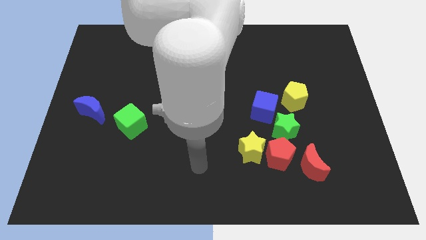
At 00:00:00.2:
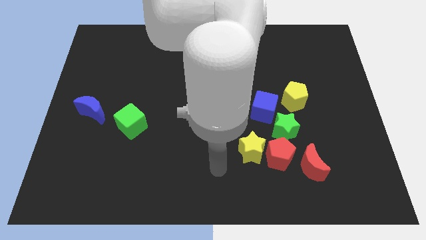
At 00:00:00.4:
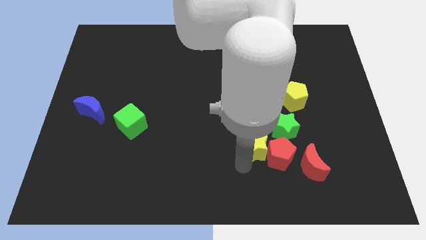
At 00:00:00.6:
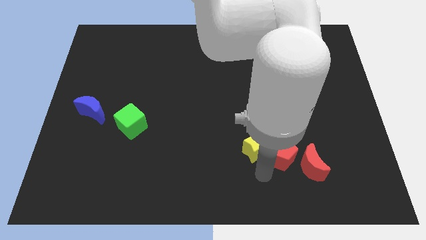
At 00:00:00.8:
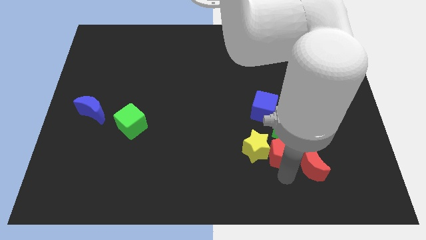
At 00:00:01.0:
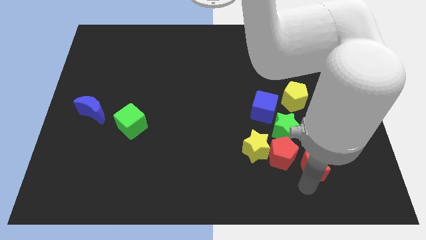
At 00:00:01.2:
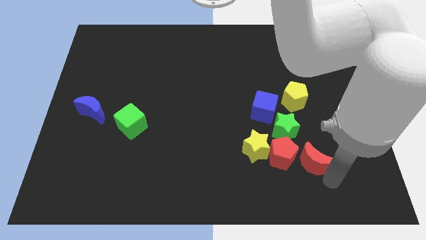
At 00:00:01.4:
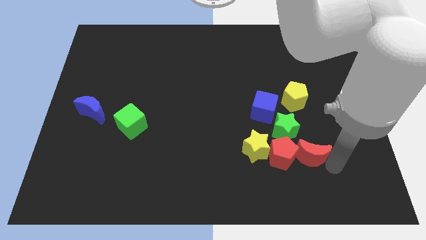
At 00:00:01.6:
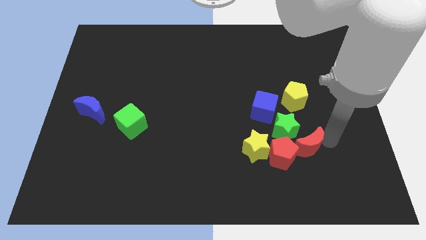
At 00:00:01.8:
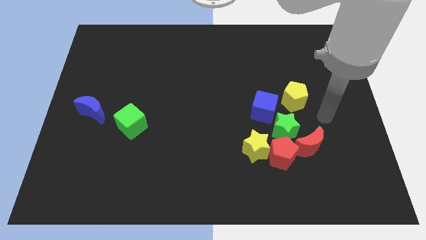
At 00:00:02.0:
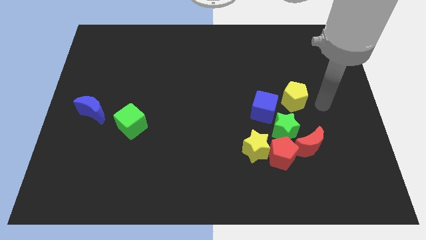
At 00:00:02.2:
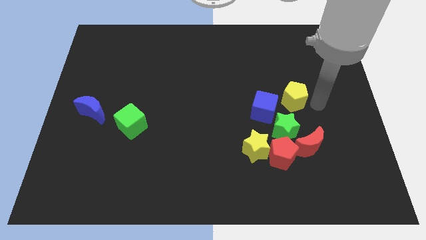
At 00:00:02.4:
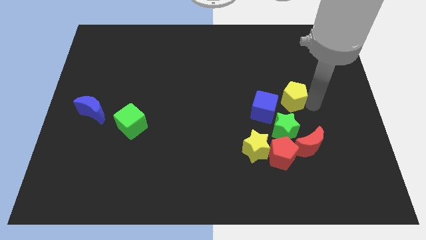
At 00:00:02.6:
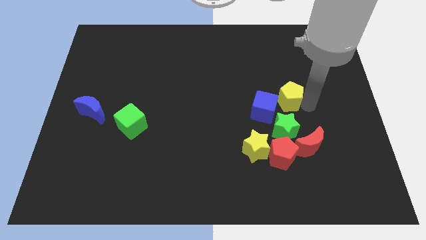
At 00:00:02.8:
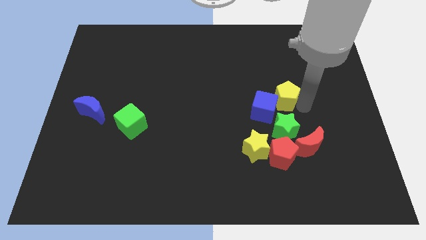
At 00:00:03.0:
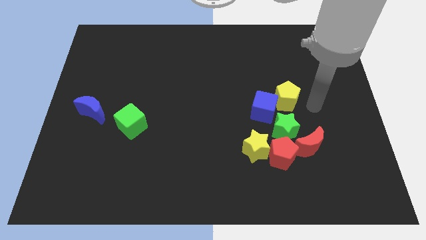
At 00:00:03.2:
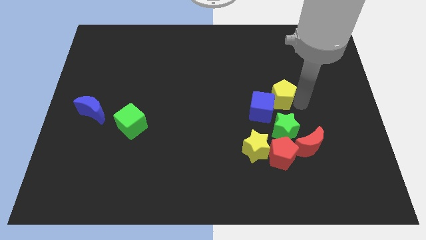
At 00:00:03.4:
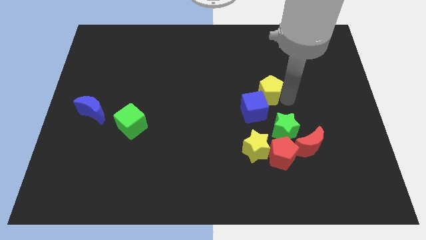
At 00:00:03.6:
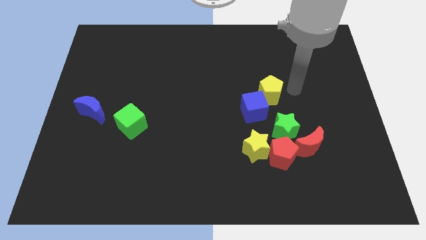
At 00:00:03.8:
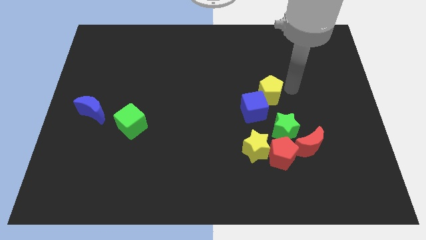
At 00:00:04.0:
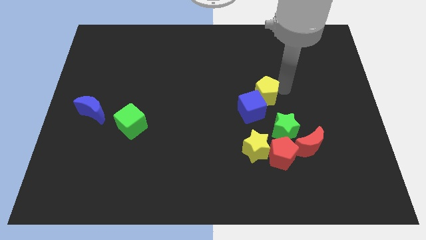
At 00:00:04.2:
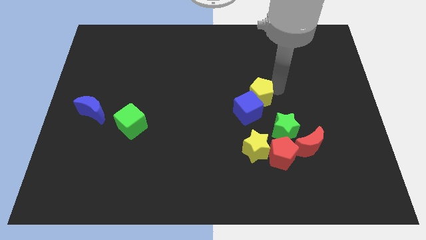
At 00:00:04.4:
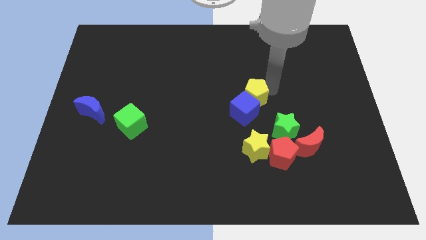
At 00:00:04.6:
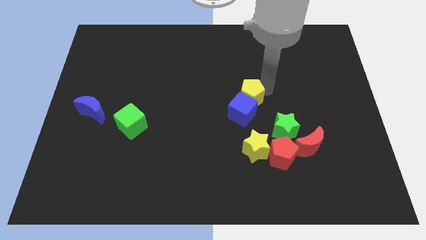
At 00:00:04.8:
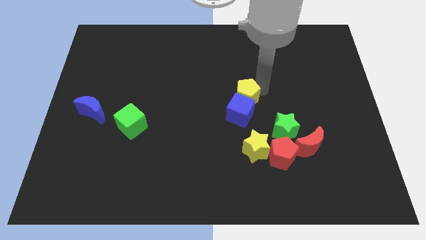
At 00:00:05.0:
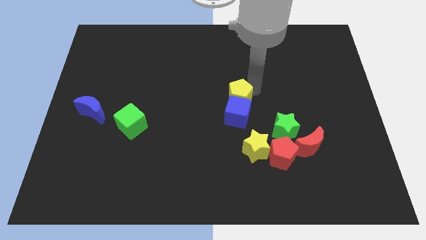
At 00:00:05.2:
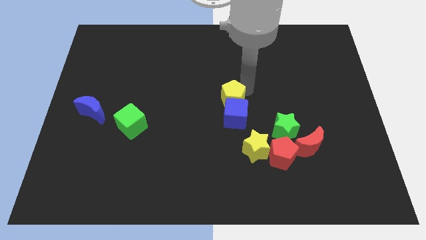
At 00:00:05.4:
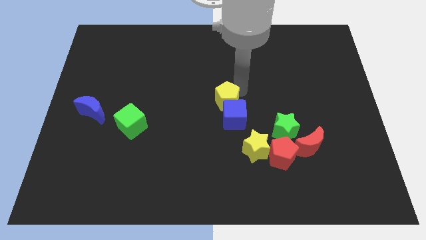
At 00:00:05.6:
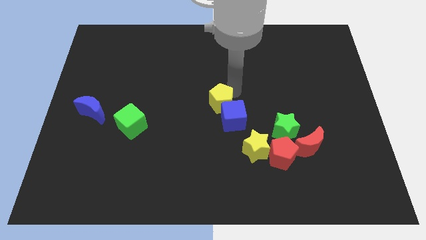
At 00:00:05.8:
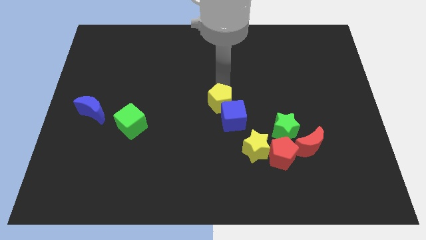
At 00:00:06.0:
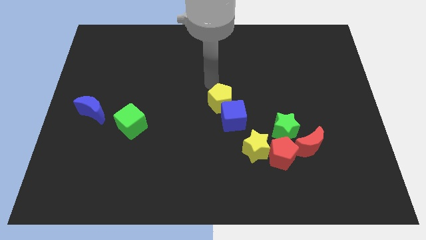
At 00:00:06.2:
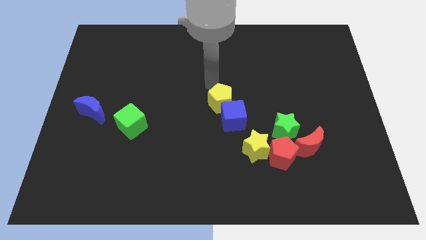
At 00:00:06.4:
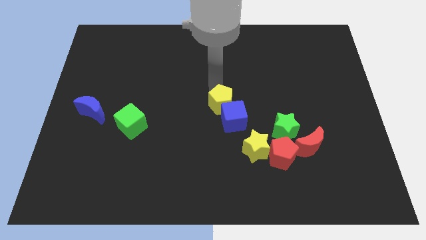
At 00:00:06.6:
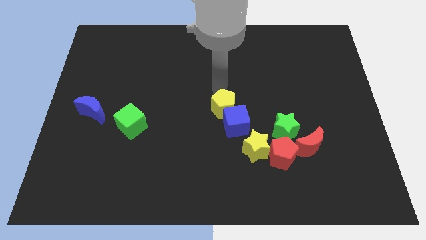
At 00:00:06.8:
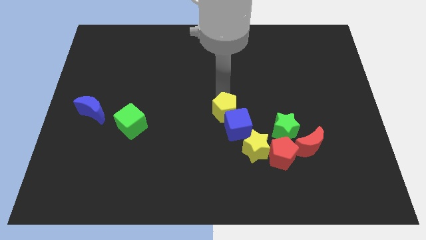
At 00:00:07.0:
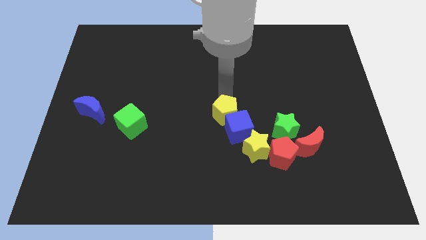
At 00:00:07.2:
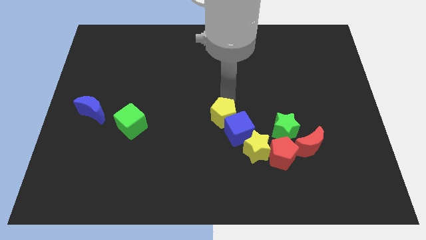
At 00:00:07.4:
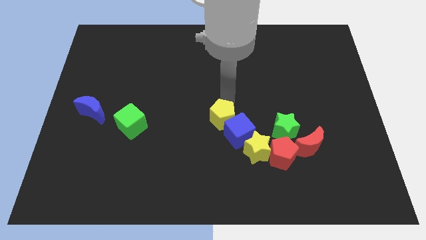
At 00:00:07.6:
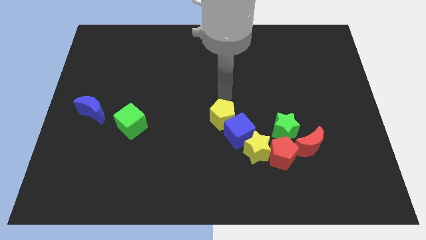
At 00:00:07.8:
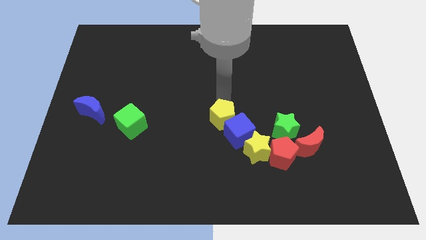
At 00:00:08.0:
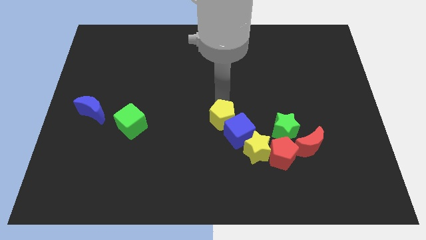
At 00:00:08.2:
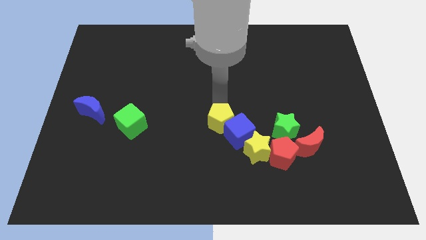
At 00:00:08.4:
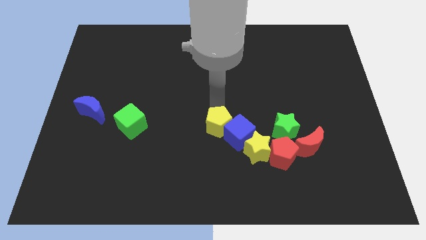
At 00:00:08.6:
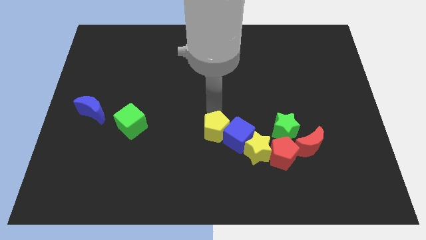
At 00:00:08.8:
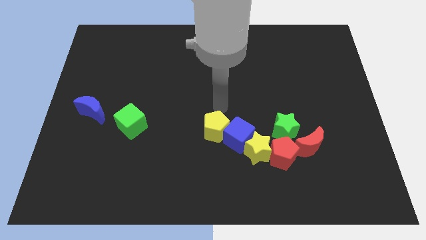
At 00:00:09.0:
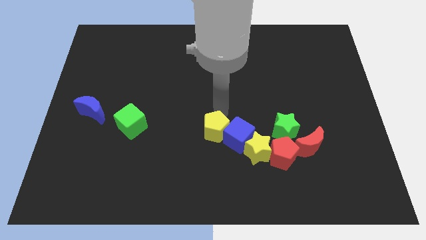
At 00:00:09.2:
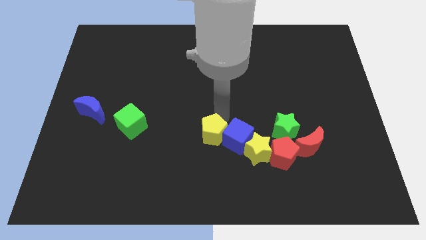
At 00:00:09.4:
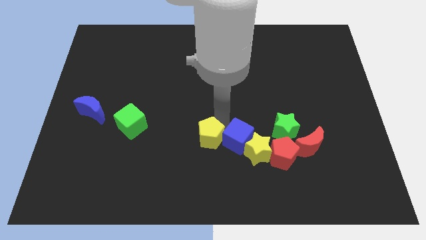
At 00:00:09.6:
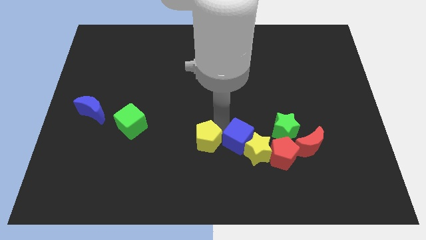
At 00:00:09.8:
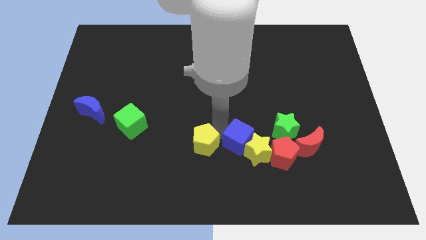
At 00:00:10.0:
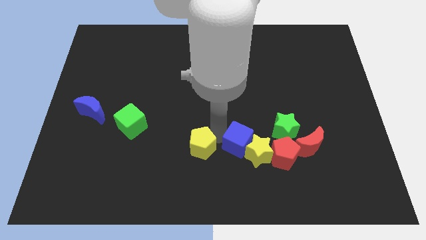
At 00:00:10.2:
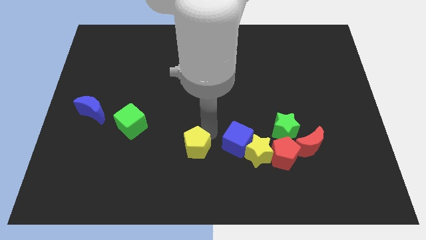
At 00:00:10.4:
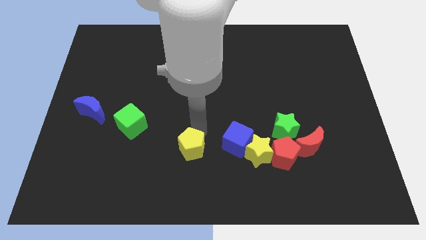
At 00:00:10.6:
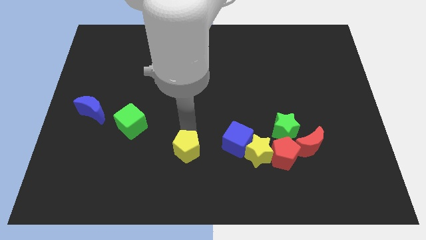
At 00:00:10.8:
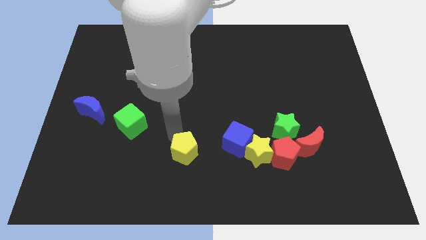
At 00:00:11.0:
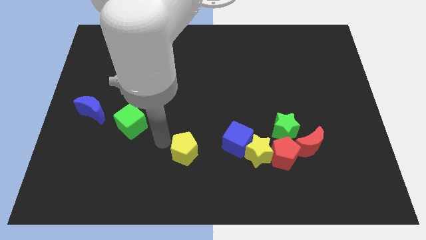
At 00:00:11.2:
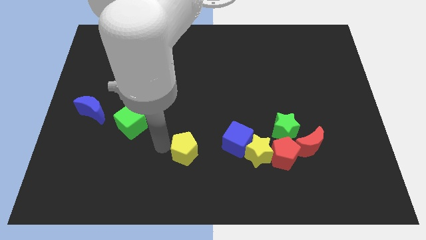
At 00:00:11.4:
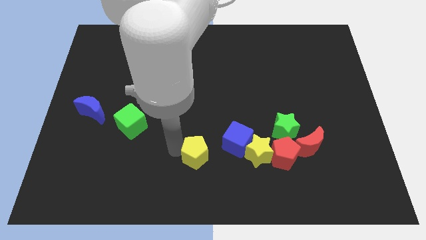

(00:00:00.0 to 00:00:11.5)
slide the yellow pentagon to the bottom side

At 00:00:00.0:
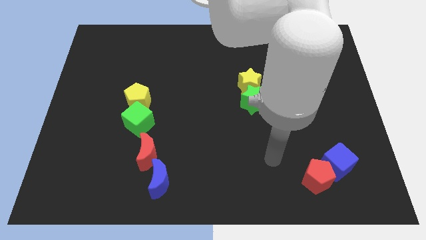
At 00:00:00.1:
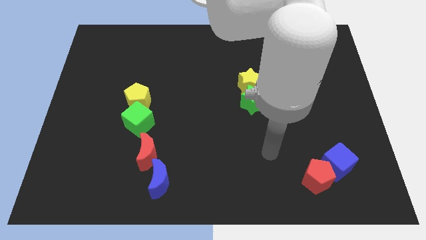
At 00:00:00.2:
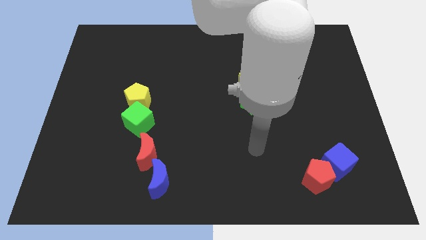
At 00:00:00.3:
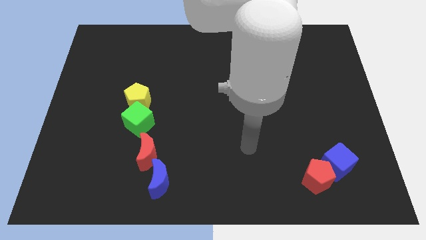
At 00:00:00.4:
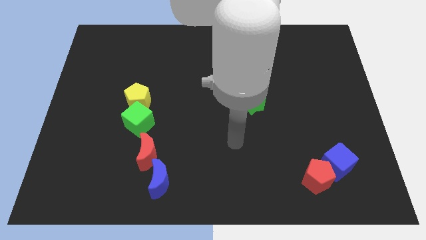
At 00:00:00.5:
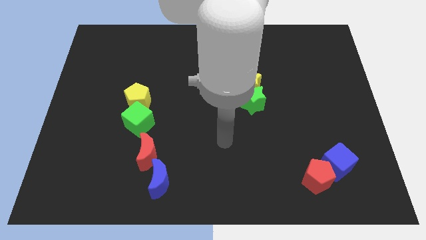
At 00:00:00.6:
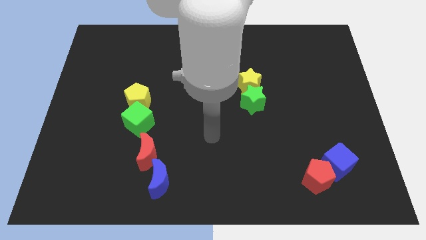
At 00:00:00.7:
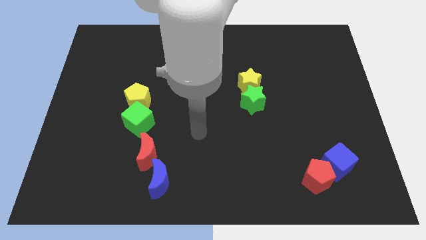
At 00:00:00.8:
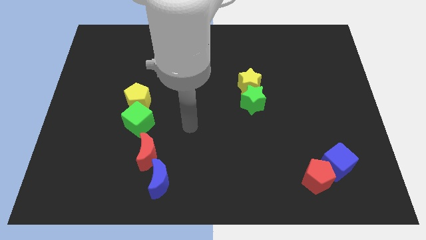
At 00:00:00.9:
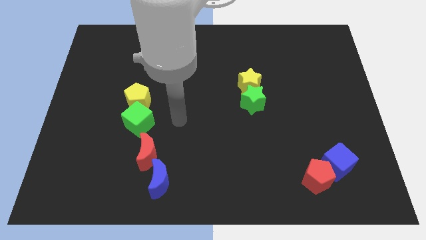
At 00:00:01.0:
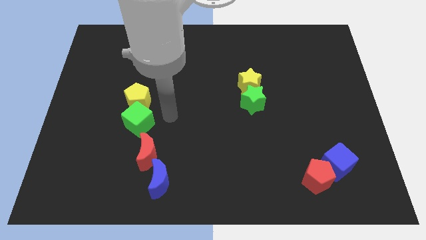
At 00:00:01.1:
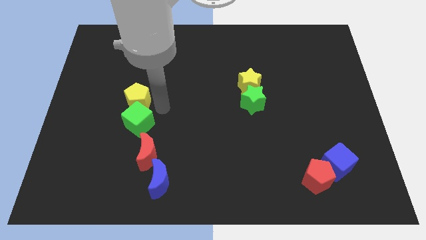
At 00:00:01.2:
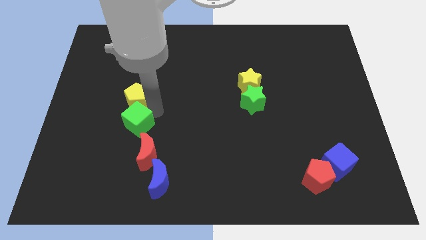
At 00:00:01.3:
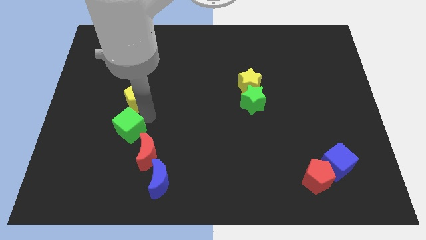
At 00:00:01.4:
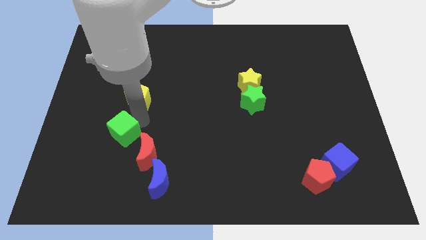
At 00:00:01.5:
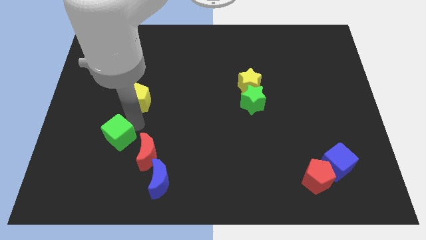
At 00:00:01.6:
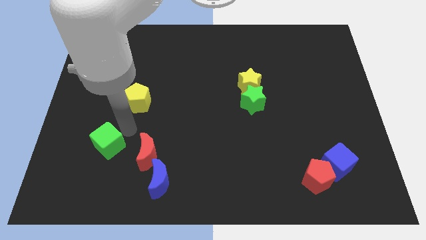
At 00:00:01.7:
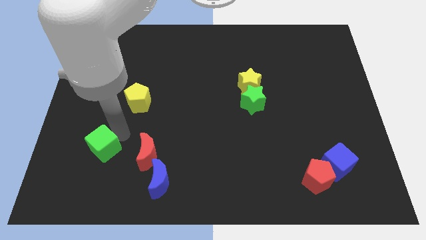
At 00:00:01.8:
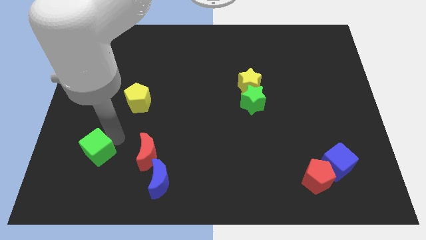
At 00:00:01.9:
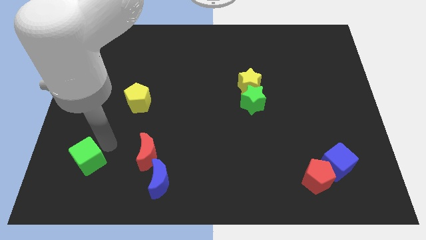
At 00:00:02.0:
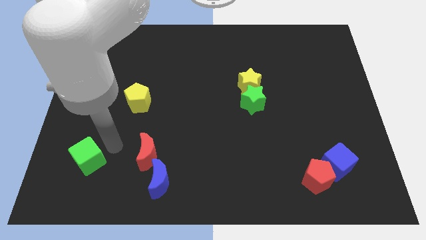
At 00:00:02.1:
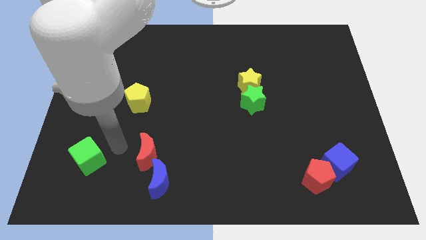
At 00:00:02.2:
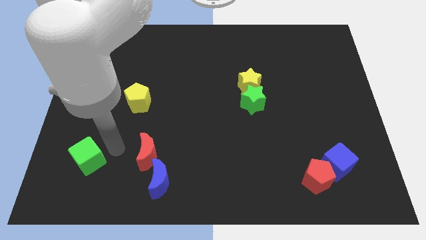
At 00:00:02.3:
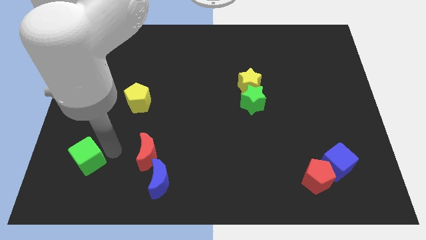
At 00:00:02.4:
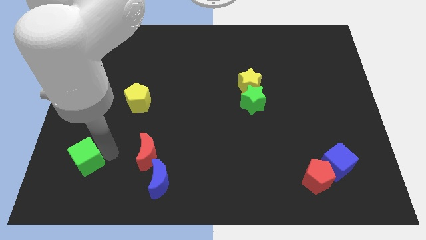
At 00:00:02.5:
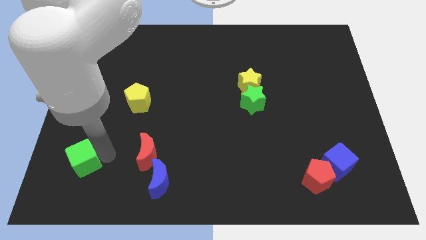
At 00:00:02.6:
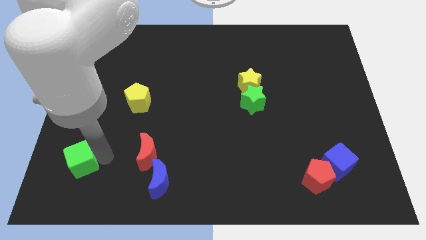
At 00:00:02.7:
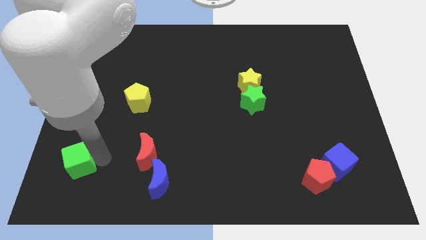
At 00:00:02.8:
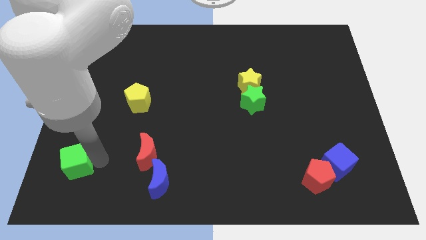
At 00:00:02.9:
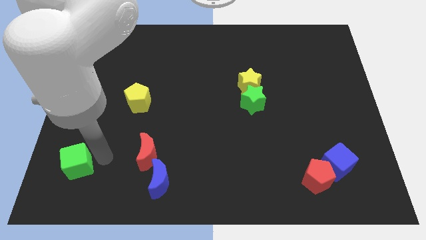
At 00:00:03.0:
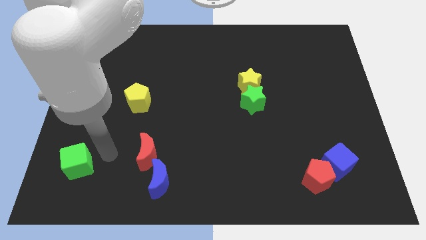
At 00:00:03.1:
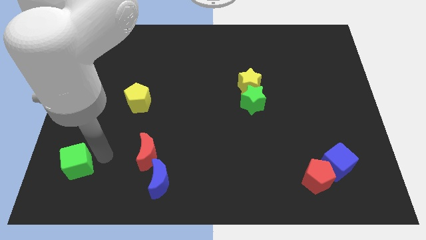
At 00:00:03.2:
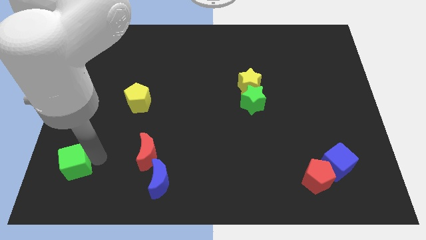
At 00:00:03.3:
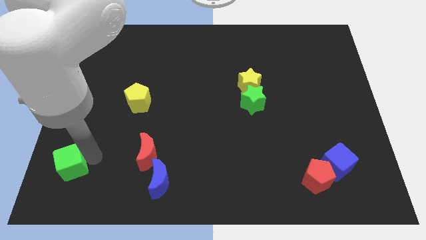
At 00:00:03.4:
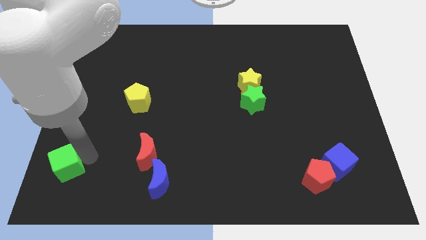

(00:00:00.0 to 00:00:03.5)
put the green cube to the bottom left
